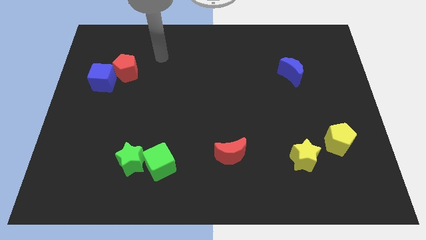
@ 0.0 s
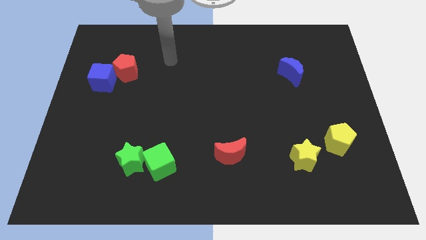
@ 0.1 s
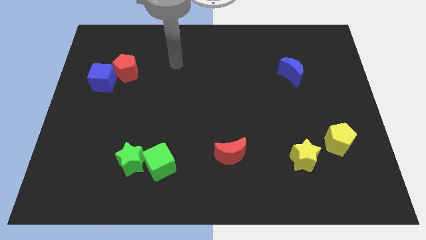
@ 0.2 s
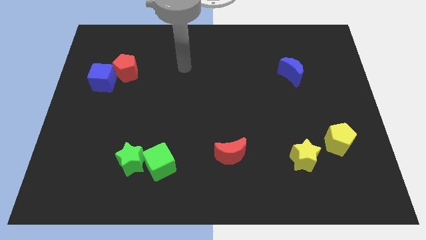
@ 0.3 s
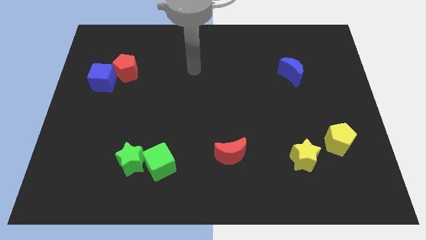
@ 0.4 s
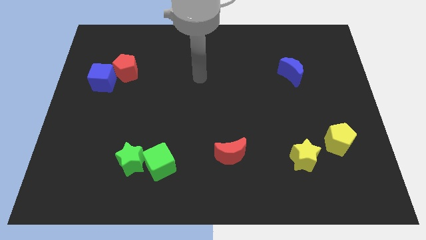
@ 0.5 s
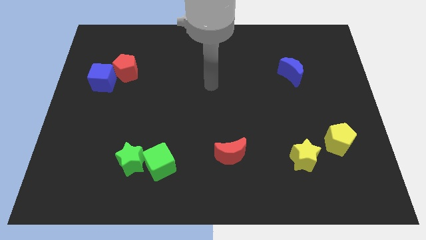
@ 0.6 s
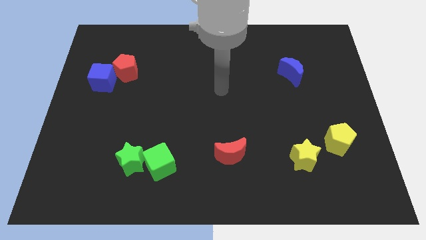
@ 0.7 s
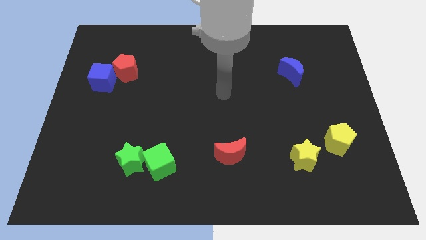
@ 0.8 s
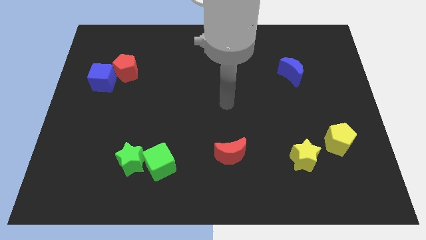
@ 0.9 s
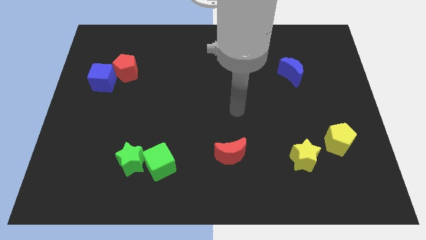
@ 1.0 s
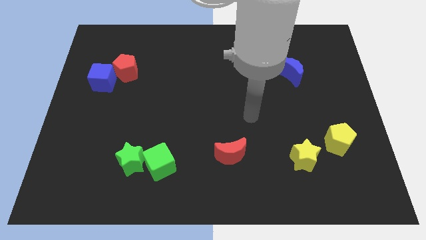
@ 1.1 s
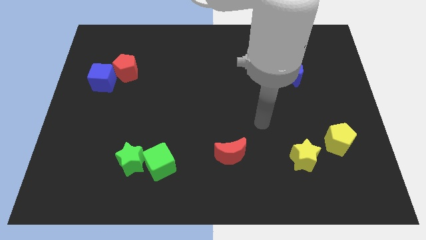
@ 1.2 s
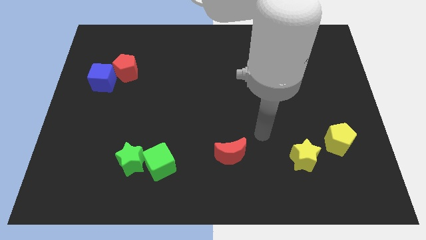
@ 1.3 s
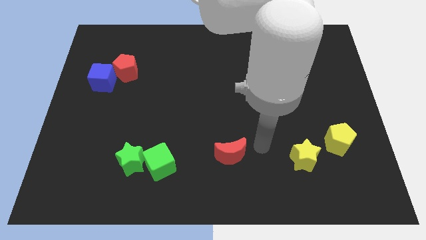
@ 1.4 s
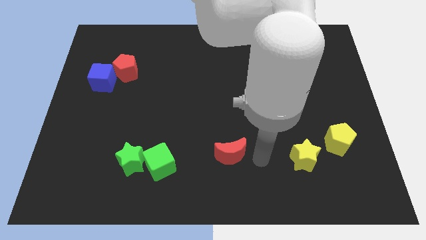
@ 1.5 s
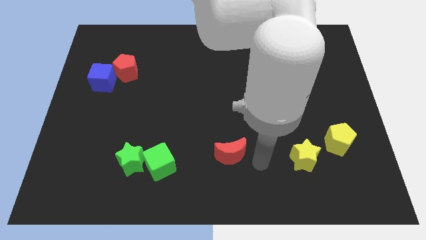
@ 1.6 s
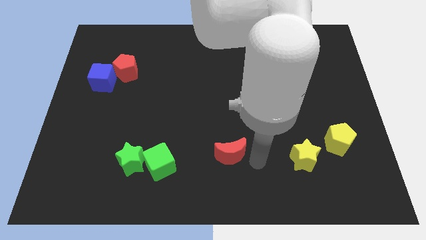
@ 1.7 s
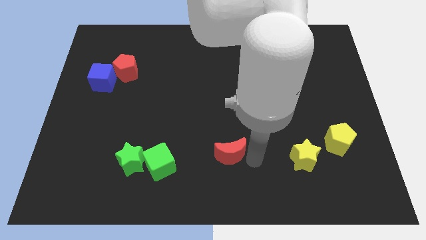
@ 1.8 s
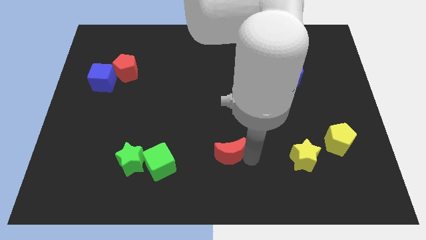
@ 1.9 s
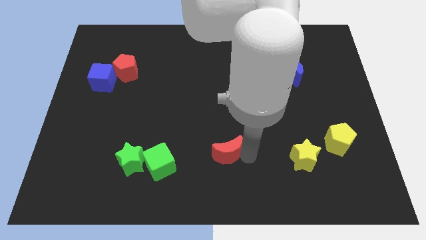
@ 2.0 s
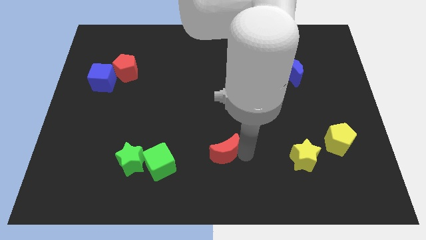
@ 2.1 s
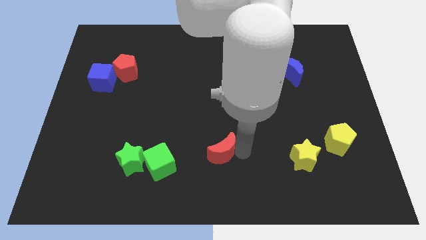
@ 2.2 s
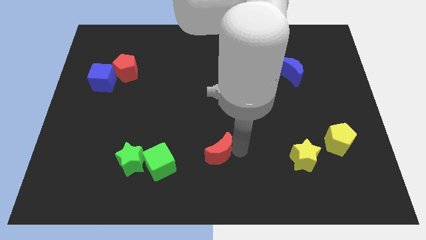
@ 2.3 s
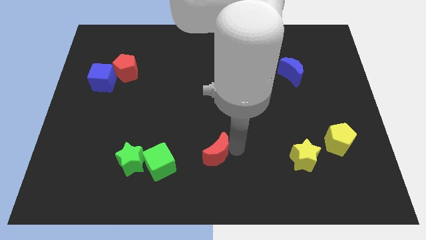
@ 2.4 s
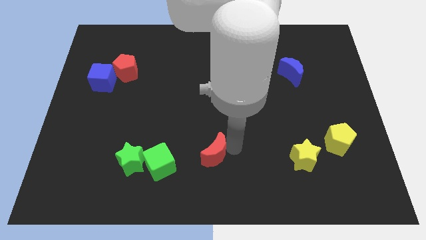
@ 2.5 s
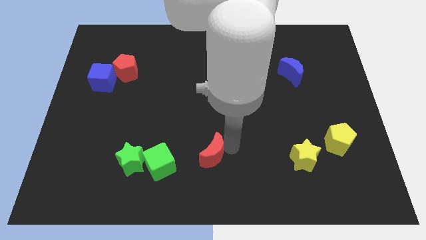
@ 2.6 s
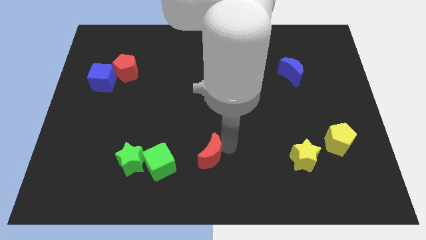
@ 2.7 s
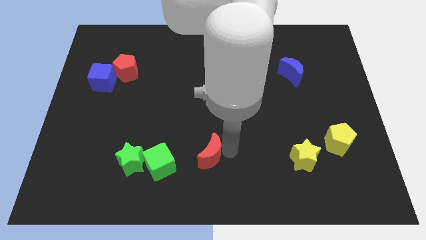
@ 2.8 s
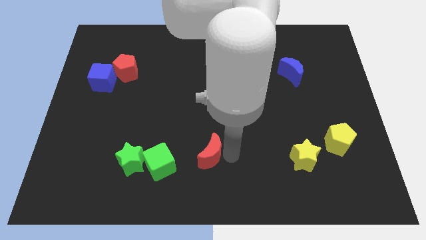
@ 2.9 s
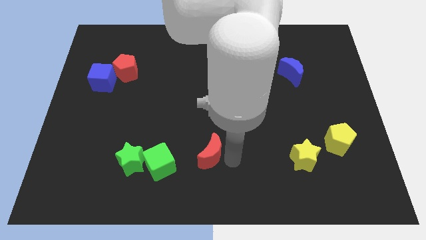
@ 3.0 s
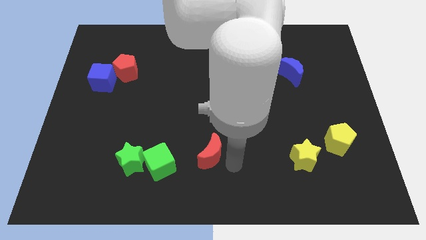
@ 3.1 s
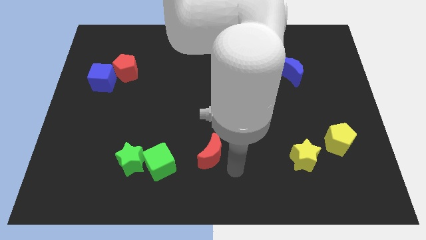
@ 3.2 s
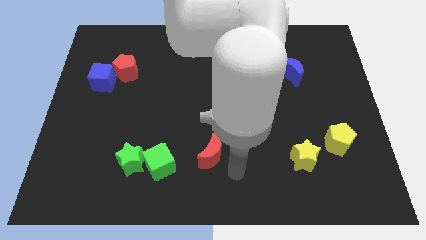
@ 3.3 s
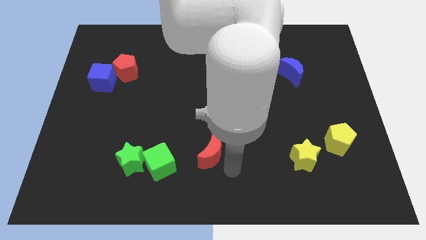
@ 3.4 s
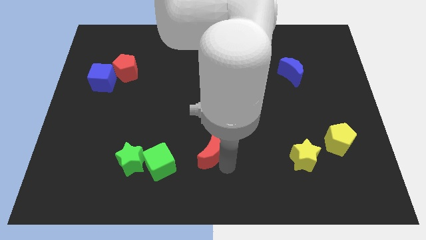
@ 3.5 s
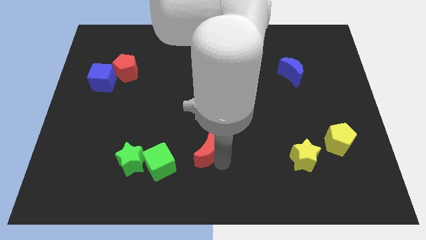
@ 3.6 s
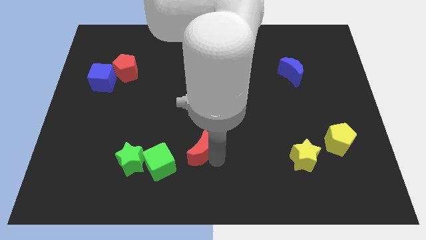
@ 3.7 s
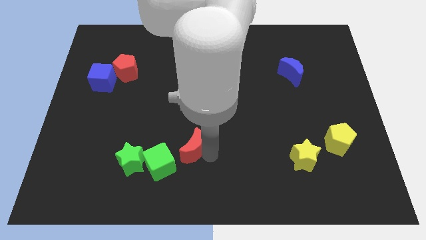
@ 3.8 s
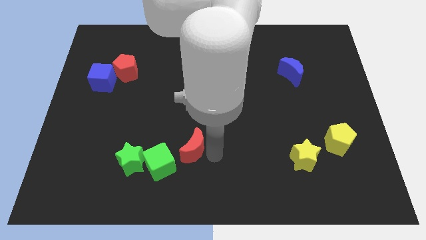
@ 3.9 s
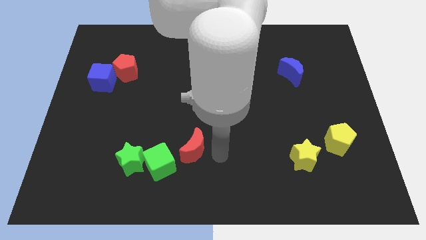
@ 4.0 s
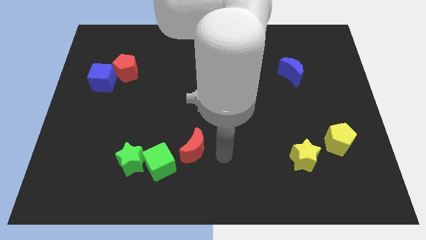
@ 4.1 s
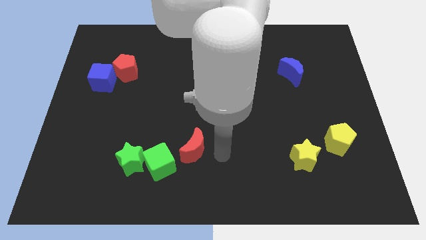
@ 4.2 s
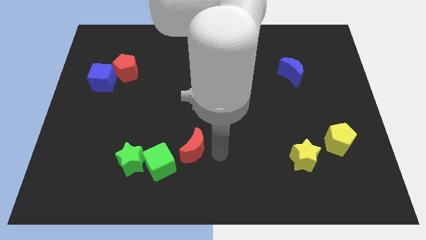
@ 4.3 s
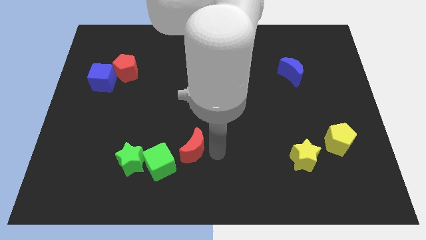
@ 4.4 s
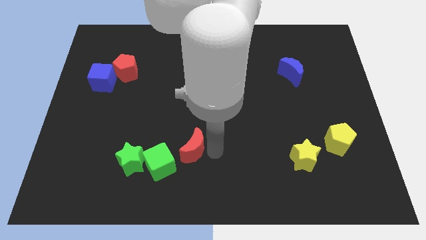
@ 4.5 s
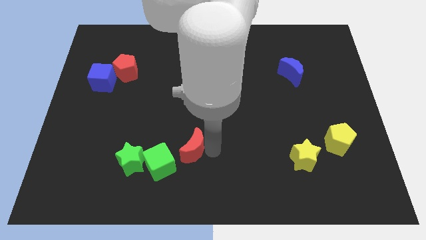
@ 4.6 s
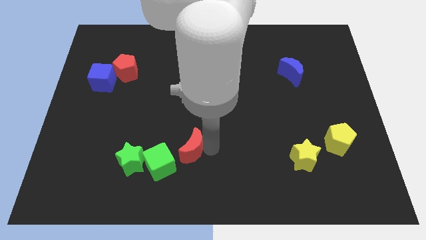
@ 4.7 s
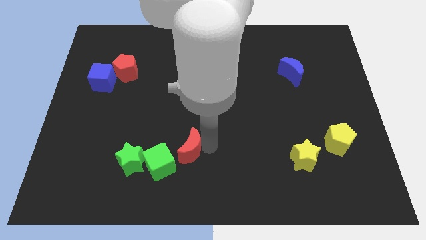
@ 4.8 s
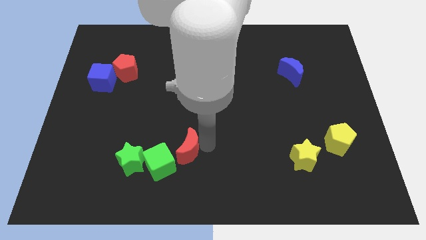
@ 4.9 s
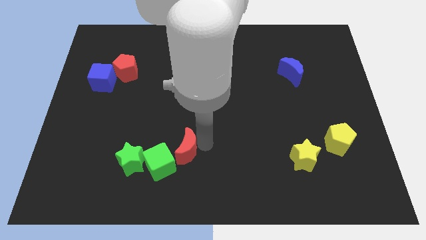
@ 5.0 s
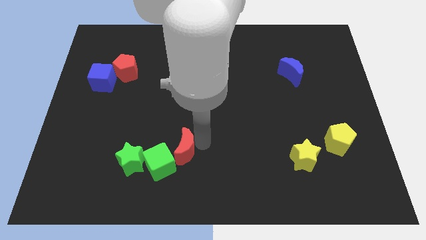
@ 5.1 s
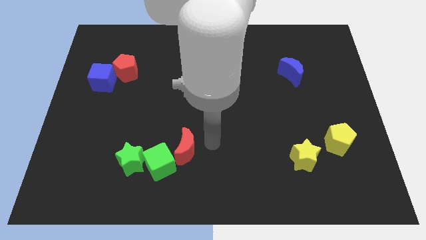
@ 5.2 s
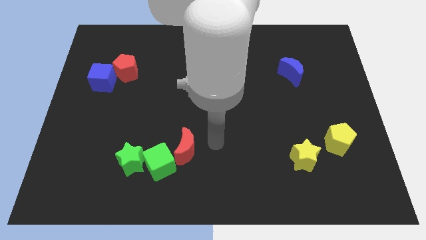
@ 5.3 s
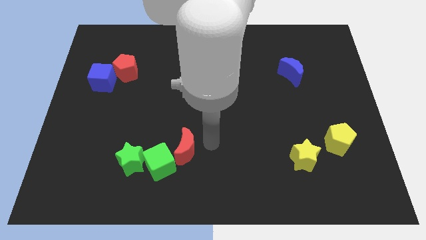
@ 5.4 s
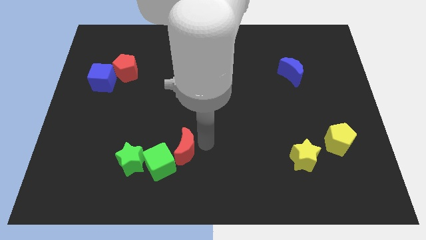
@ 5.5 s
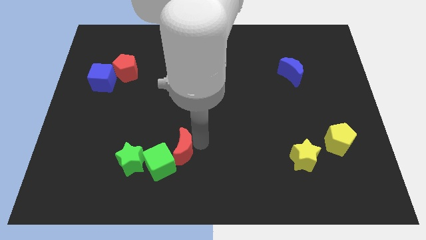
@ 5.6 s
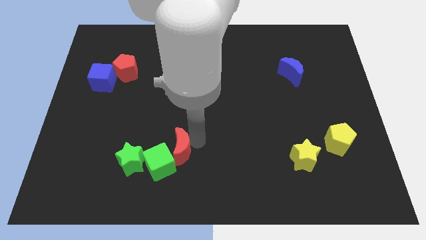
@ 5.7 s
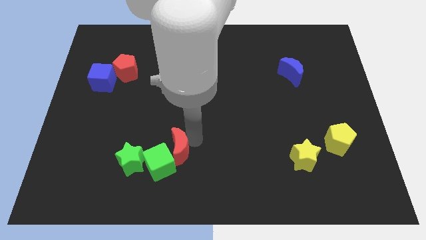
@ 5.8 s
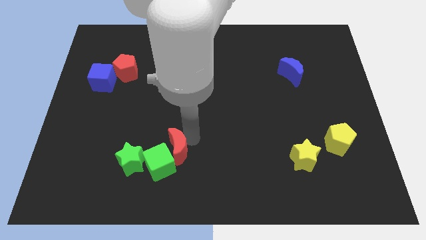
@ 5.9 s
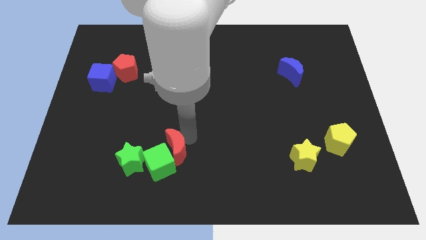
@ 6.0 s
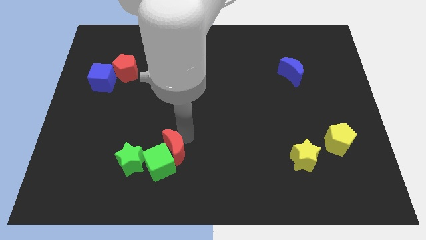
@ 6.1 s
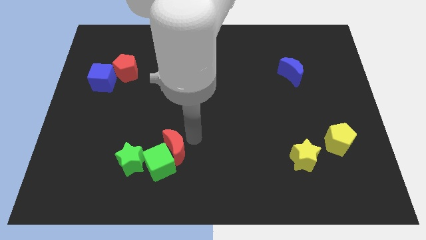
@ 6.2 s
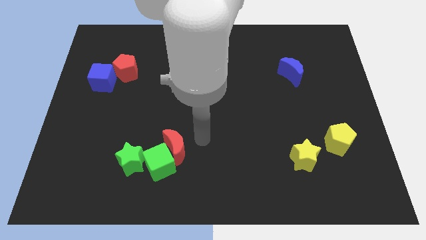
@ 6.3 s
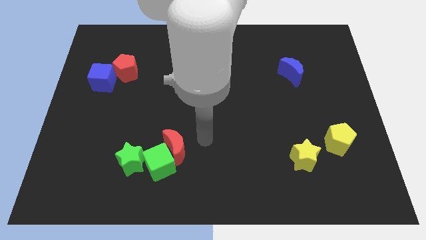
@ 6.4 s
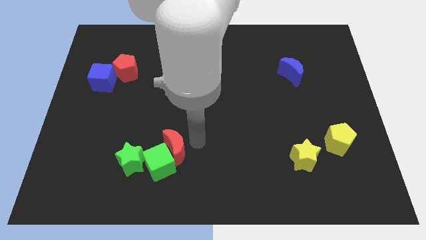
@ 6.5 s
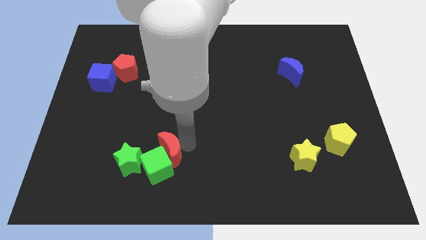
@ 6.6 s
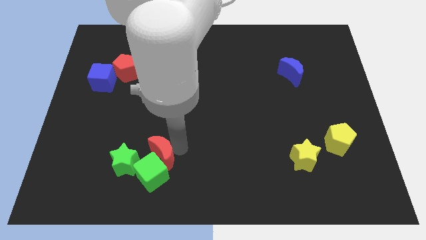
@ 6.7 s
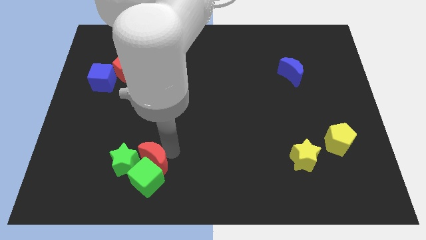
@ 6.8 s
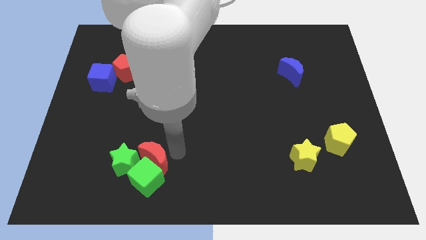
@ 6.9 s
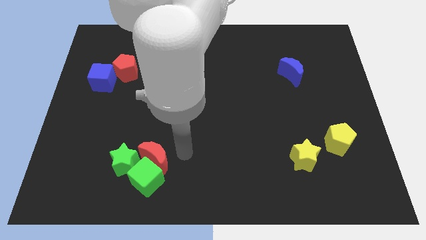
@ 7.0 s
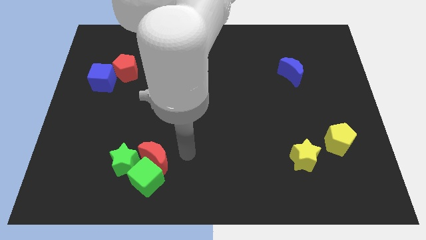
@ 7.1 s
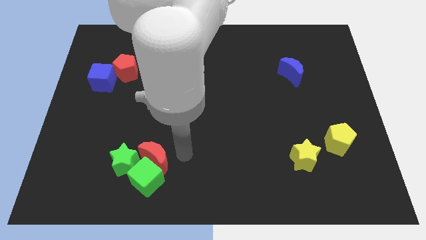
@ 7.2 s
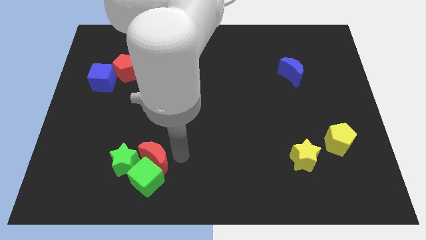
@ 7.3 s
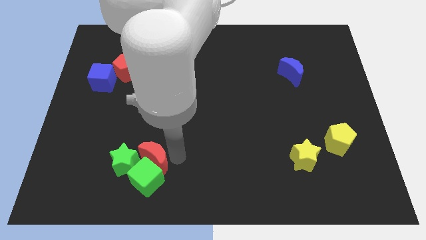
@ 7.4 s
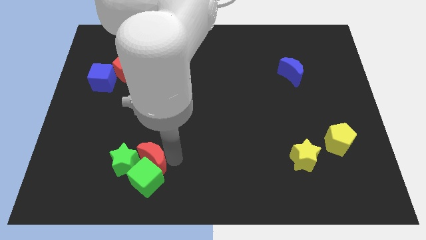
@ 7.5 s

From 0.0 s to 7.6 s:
put the red moon next to the green star
